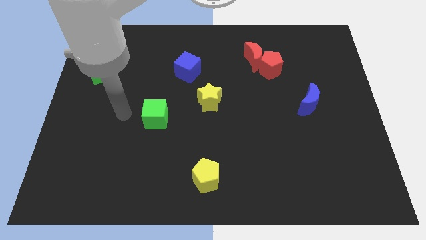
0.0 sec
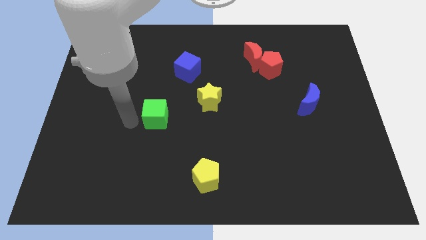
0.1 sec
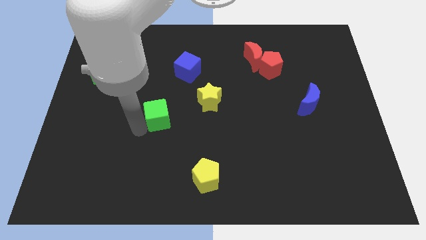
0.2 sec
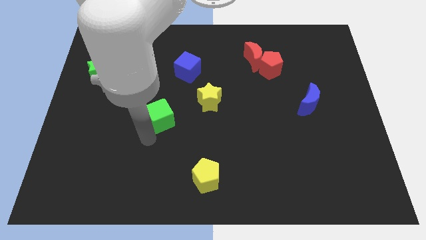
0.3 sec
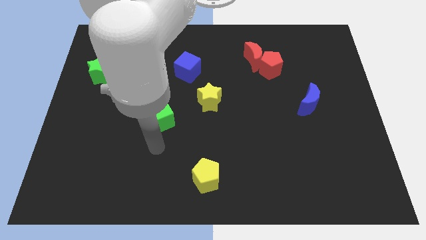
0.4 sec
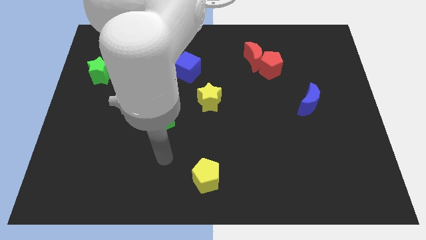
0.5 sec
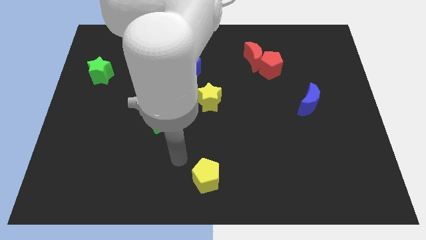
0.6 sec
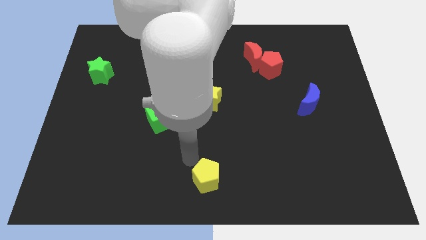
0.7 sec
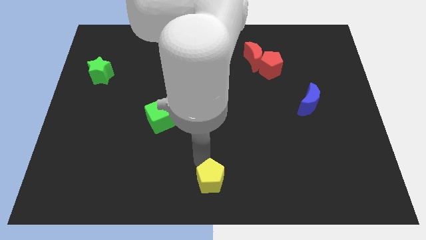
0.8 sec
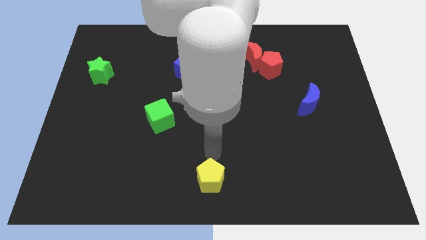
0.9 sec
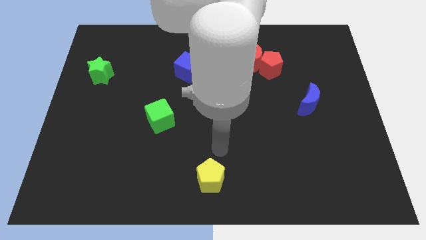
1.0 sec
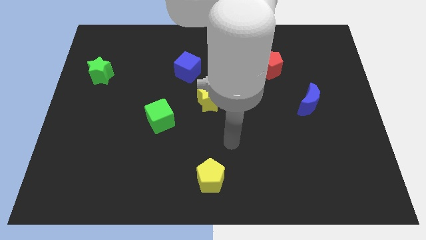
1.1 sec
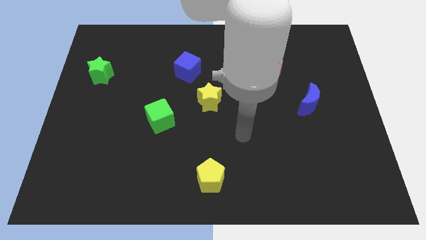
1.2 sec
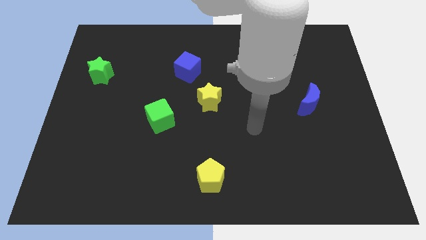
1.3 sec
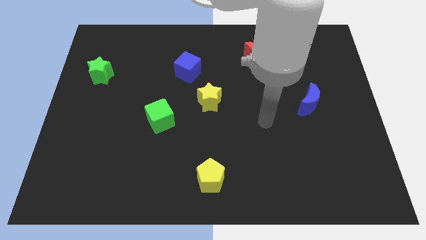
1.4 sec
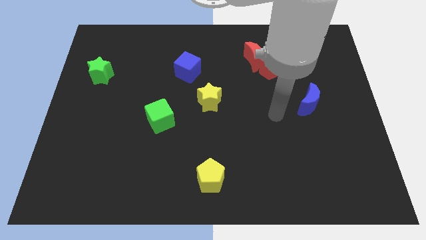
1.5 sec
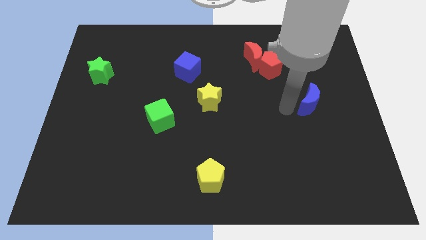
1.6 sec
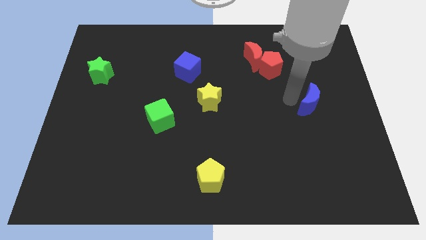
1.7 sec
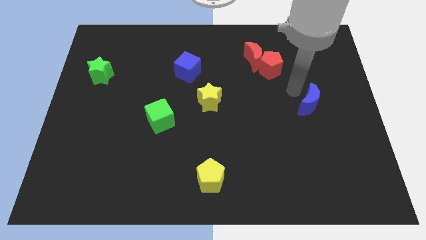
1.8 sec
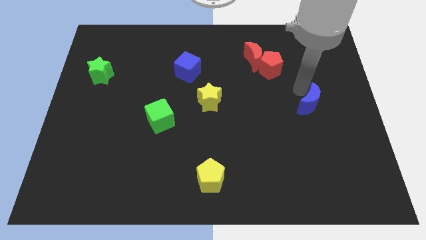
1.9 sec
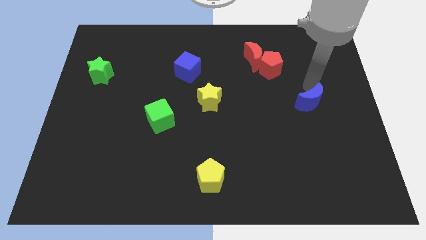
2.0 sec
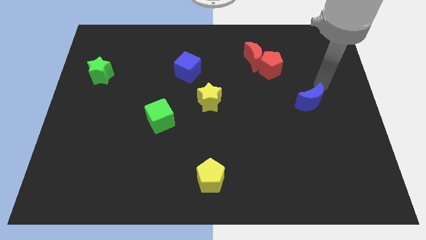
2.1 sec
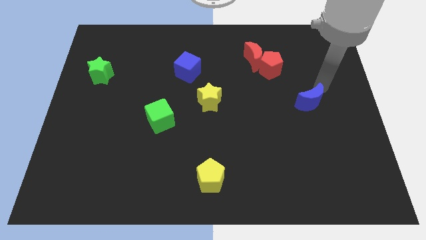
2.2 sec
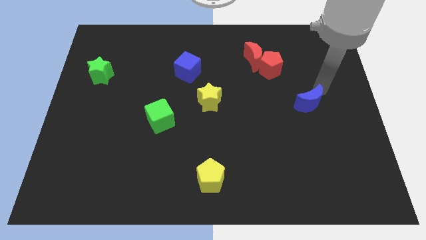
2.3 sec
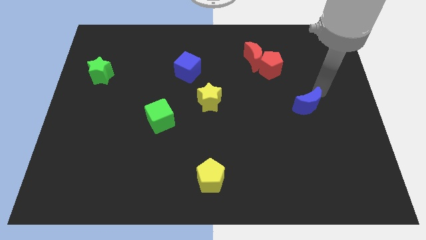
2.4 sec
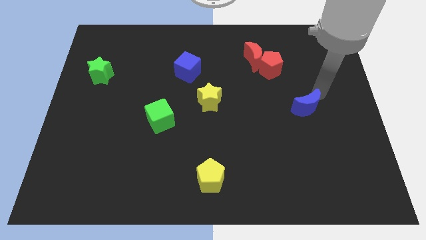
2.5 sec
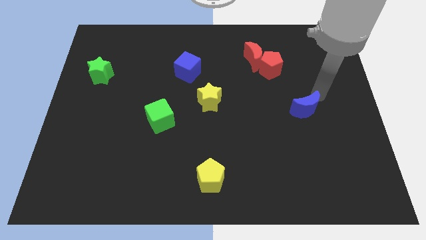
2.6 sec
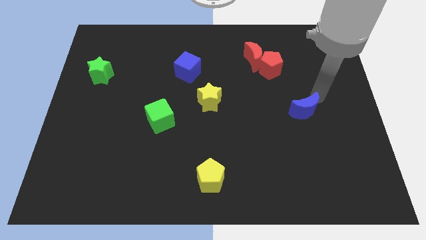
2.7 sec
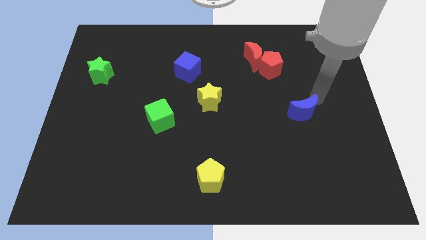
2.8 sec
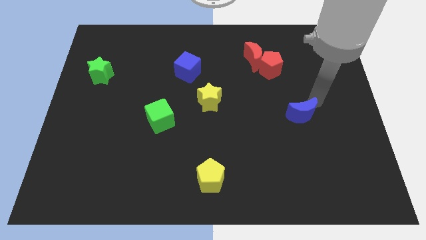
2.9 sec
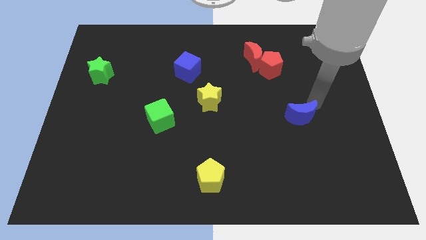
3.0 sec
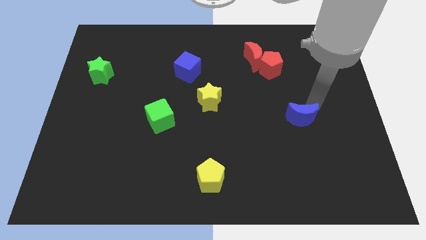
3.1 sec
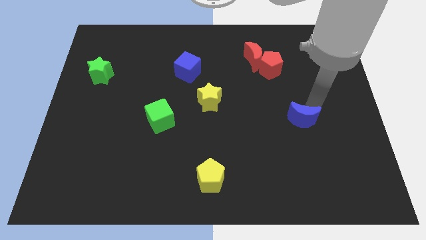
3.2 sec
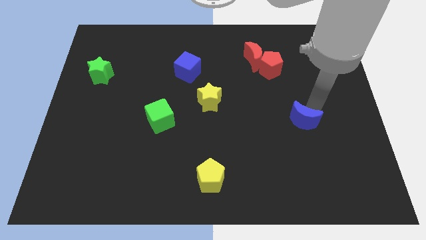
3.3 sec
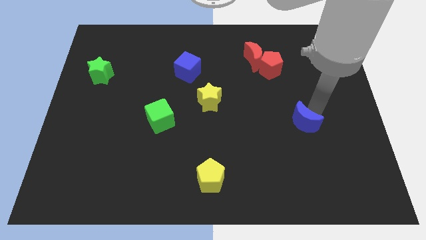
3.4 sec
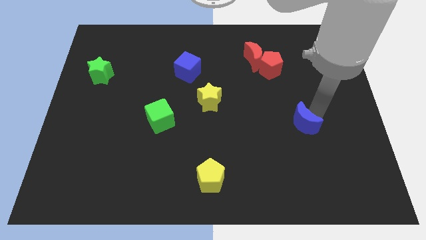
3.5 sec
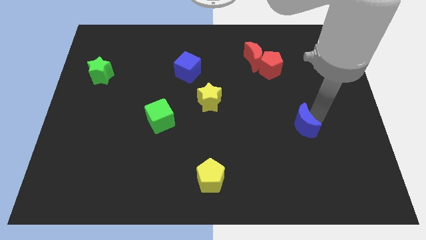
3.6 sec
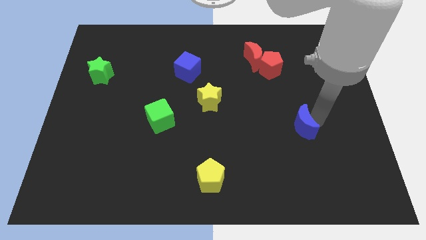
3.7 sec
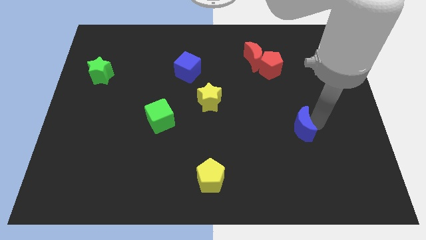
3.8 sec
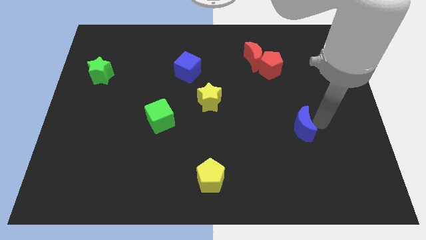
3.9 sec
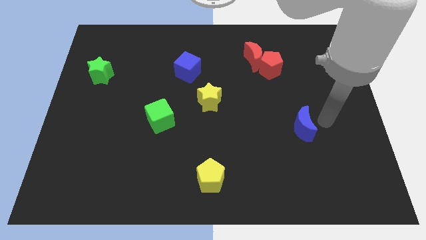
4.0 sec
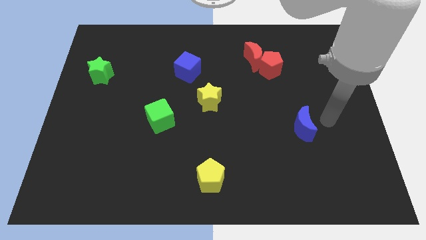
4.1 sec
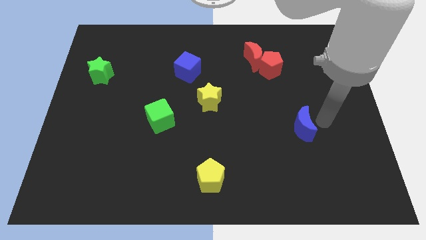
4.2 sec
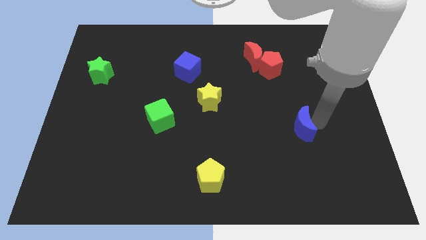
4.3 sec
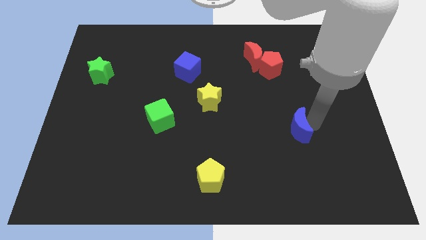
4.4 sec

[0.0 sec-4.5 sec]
slide the blue moon a bit downwards and to the left

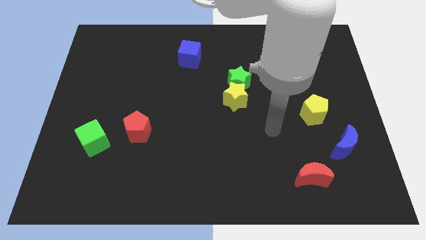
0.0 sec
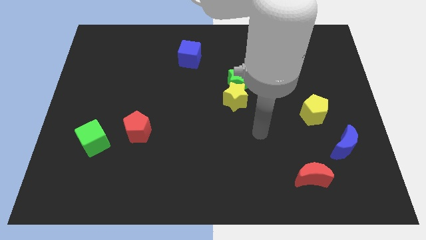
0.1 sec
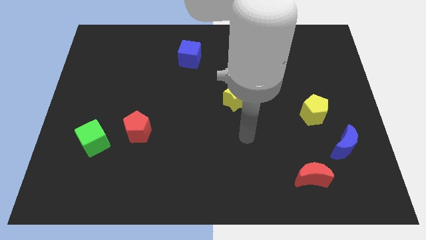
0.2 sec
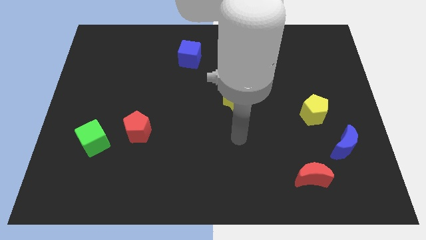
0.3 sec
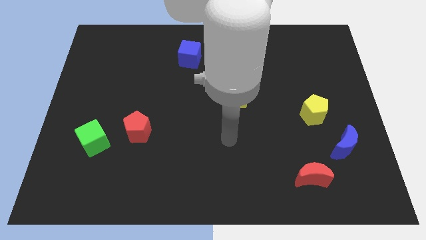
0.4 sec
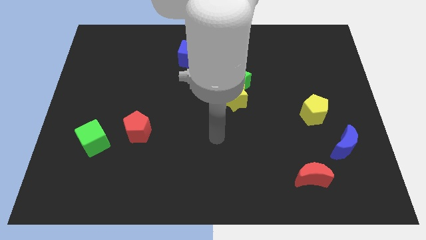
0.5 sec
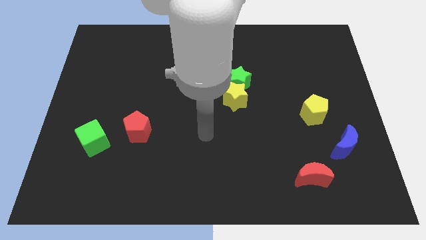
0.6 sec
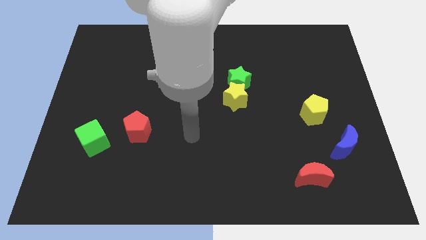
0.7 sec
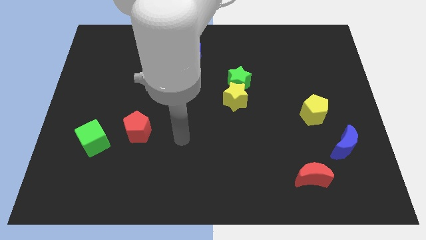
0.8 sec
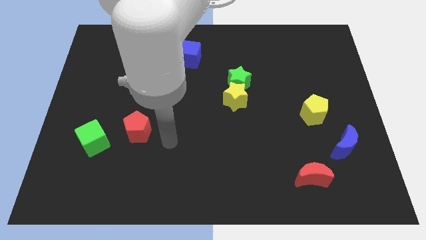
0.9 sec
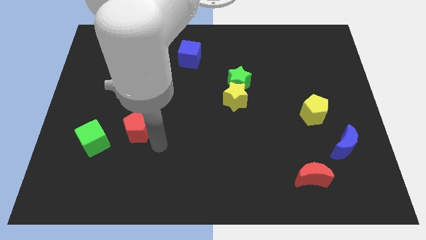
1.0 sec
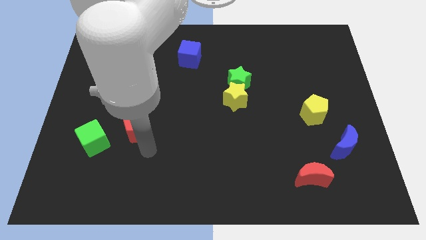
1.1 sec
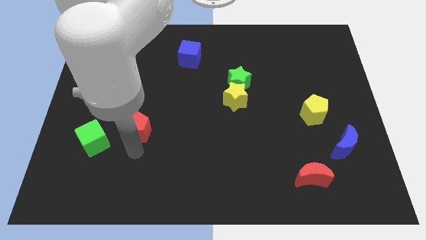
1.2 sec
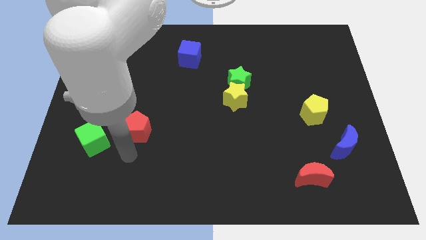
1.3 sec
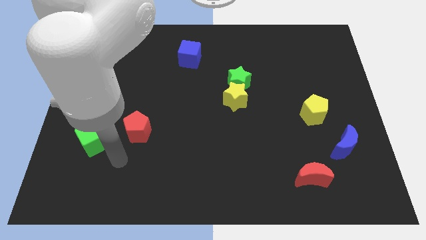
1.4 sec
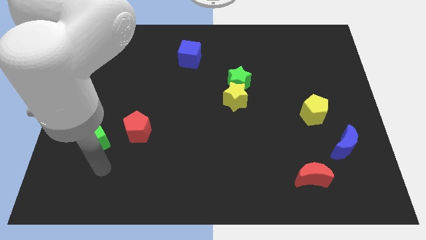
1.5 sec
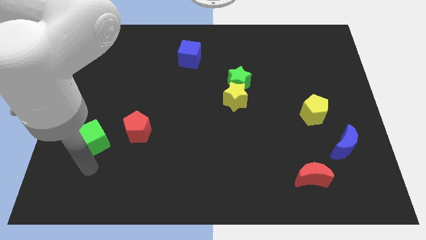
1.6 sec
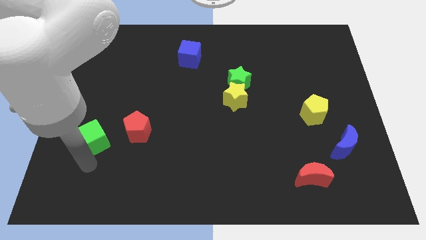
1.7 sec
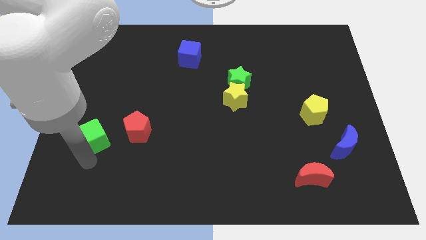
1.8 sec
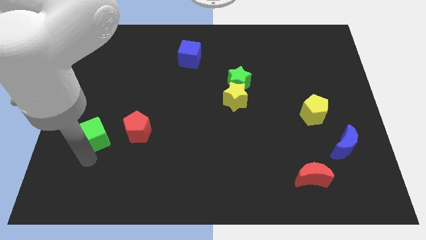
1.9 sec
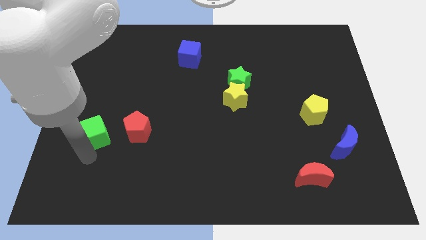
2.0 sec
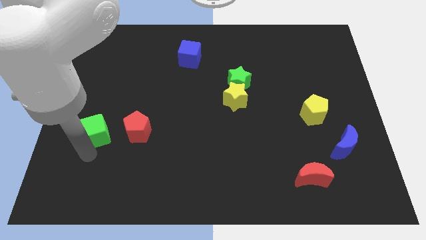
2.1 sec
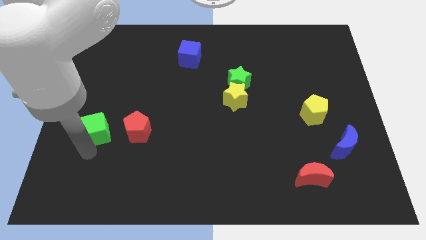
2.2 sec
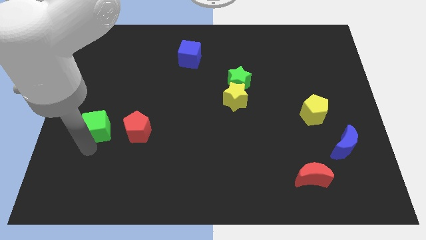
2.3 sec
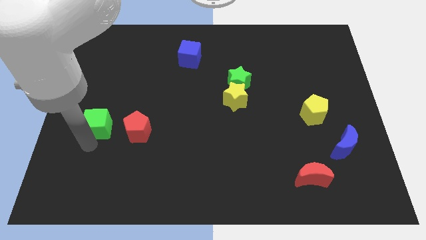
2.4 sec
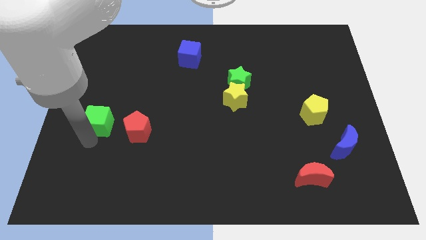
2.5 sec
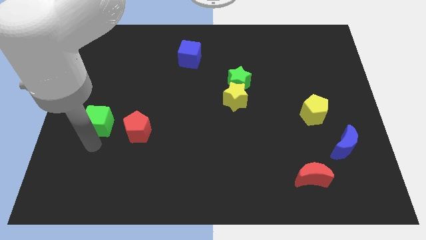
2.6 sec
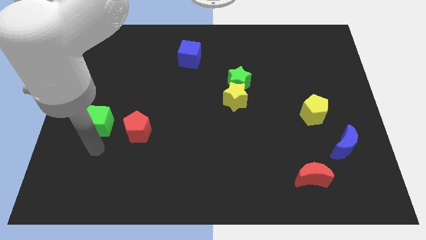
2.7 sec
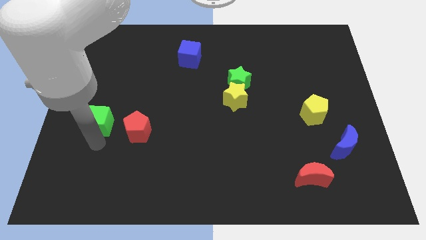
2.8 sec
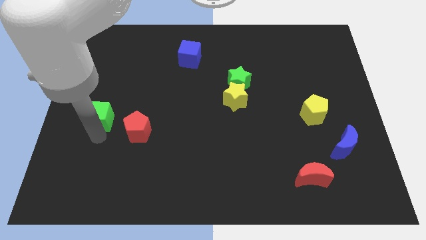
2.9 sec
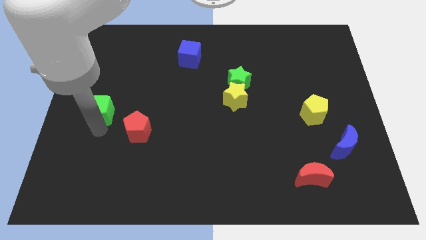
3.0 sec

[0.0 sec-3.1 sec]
move the green cube up a little bit

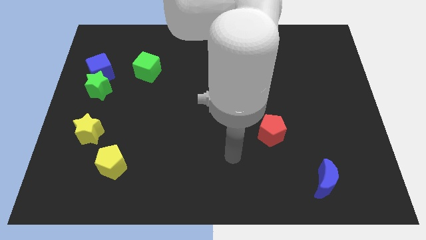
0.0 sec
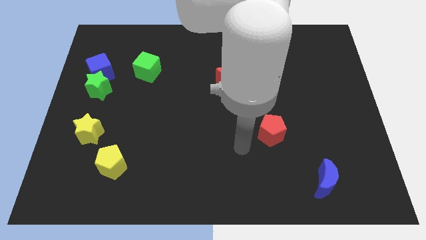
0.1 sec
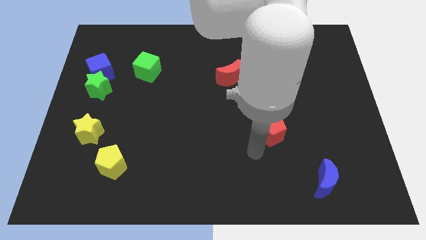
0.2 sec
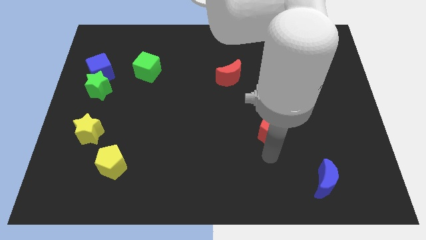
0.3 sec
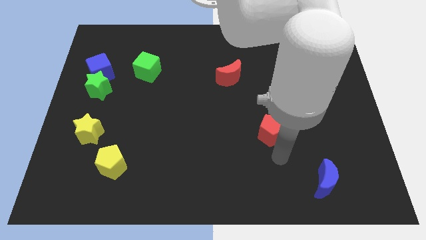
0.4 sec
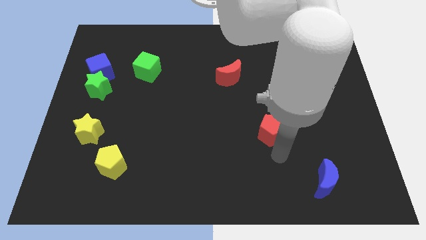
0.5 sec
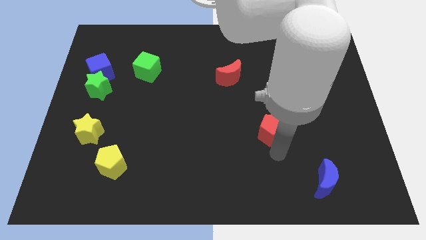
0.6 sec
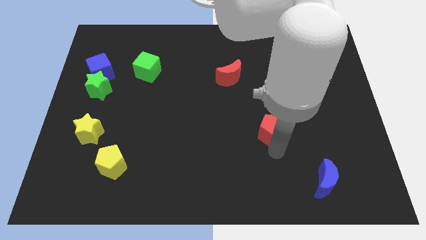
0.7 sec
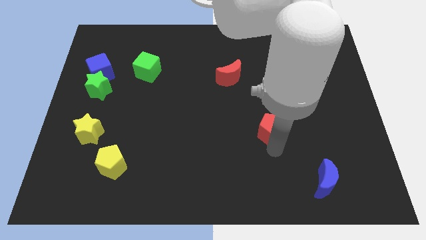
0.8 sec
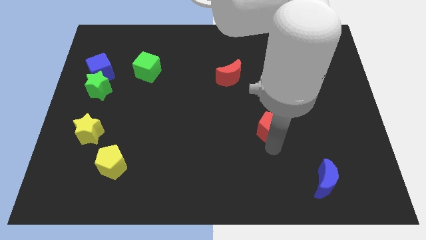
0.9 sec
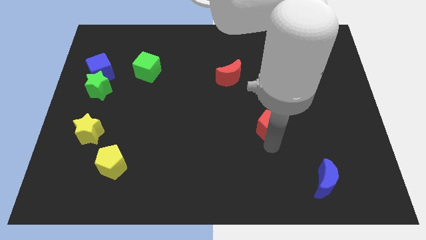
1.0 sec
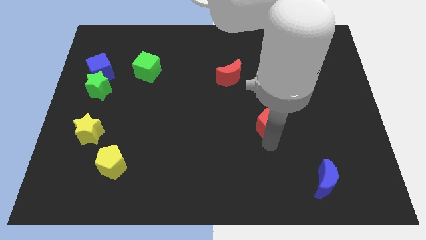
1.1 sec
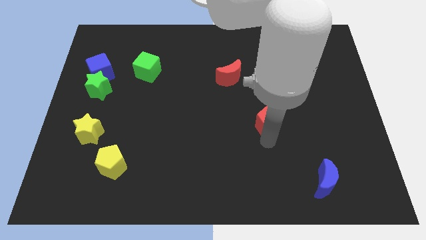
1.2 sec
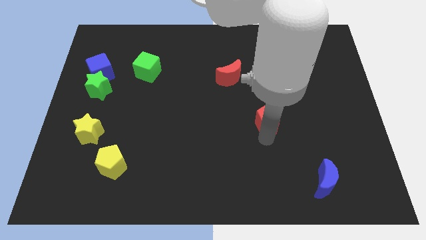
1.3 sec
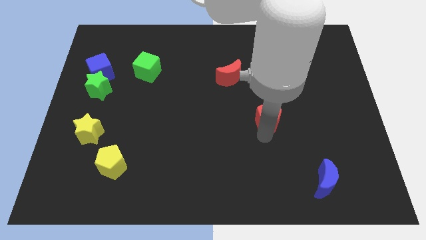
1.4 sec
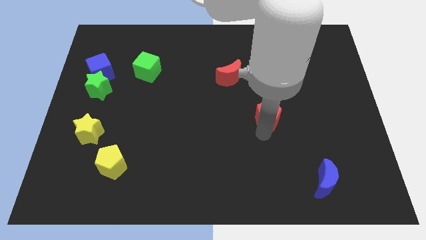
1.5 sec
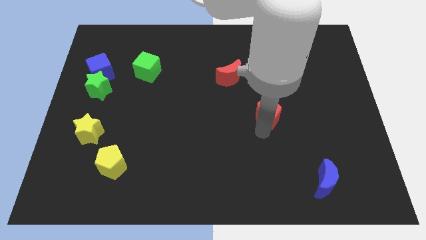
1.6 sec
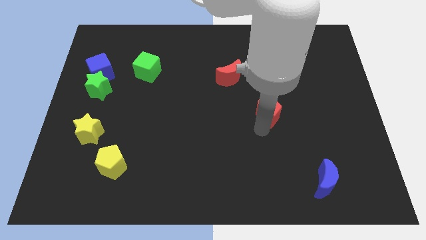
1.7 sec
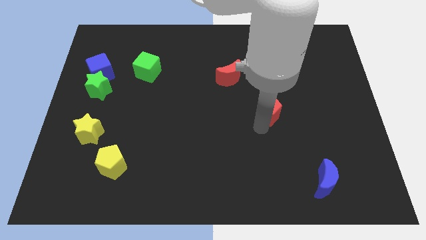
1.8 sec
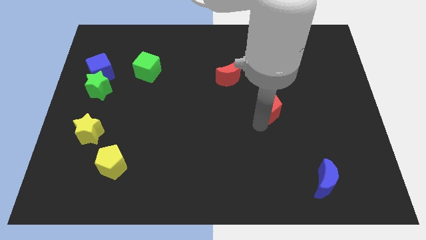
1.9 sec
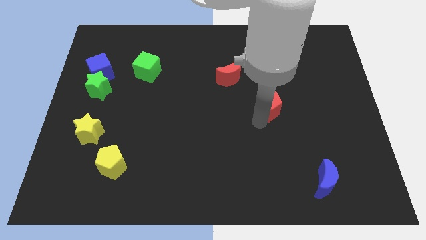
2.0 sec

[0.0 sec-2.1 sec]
slide the red pentagon slightly upwards
